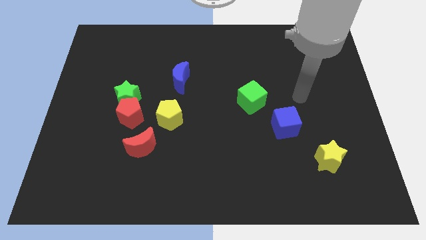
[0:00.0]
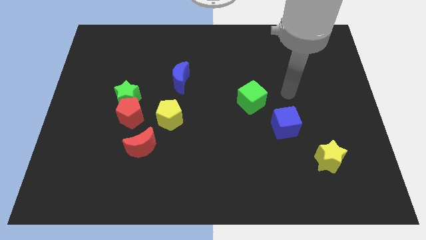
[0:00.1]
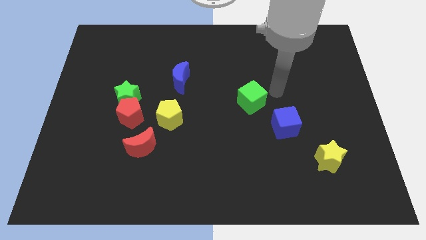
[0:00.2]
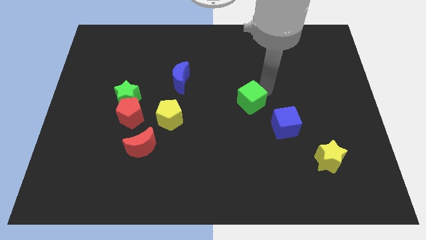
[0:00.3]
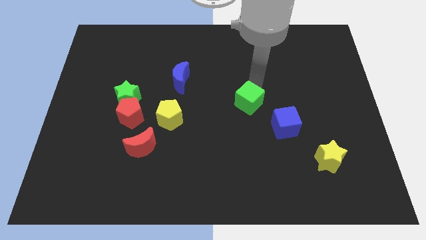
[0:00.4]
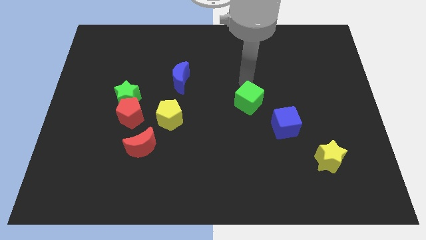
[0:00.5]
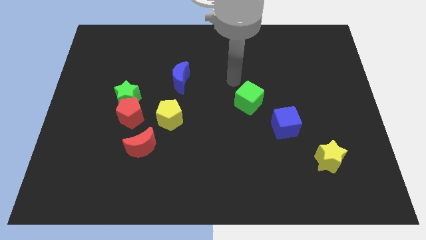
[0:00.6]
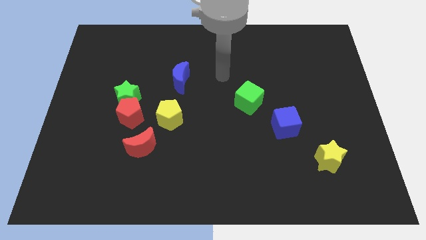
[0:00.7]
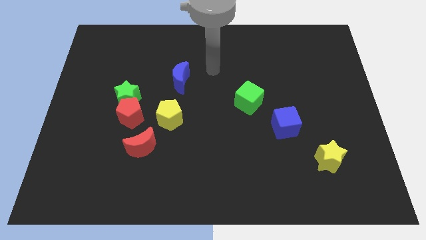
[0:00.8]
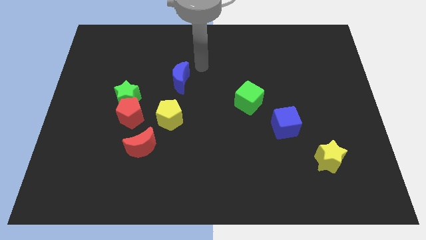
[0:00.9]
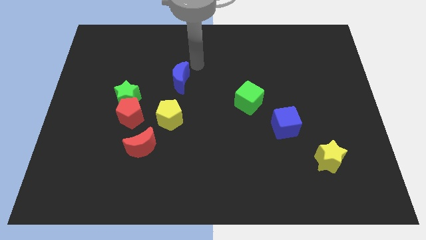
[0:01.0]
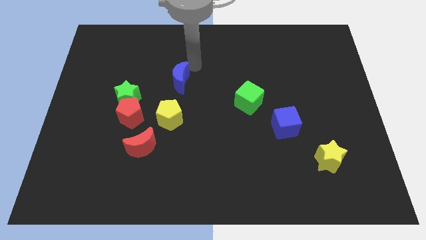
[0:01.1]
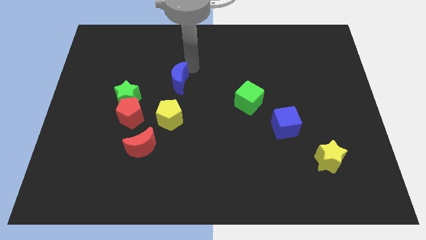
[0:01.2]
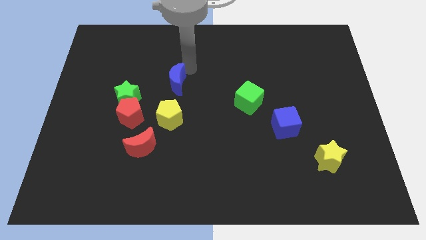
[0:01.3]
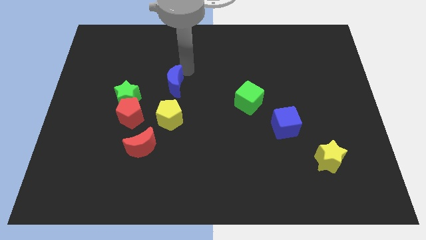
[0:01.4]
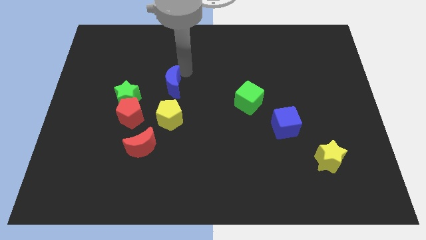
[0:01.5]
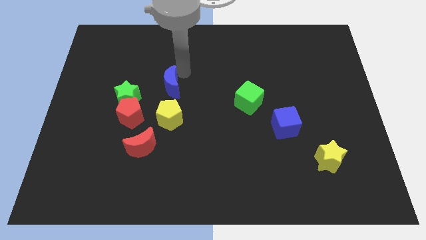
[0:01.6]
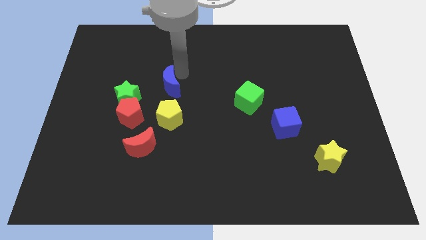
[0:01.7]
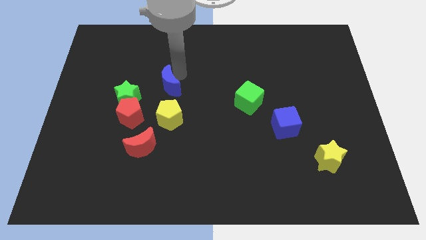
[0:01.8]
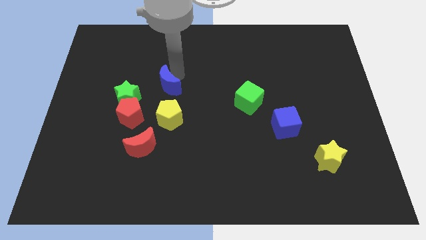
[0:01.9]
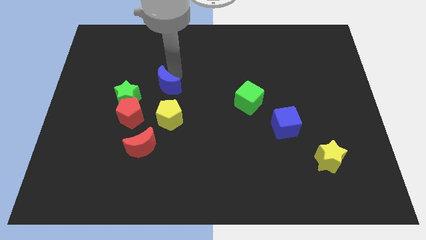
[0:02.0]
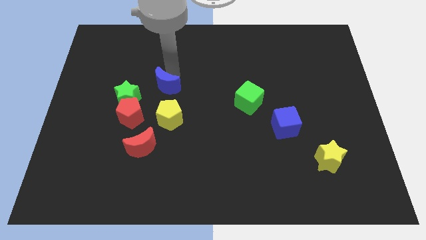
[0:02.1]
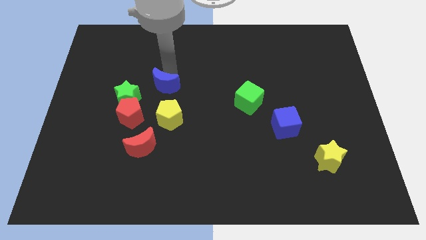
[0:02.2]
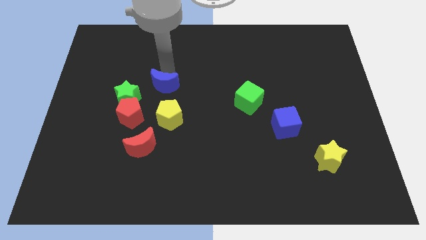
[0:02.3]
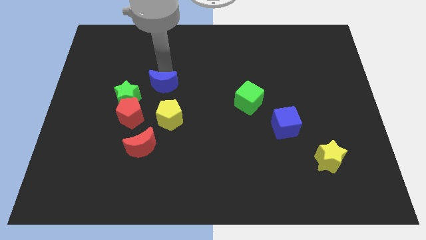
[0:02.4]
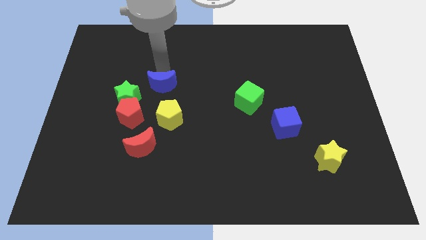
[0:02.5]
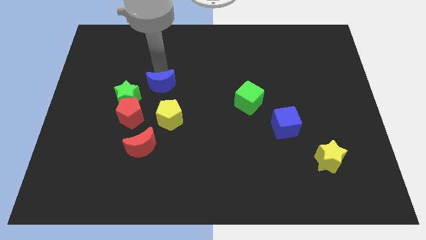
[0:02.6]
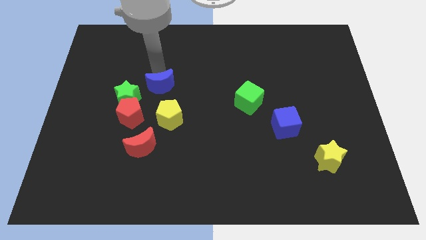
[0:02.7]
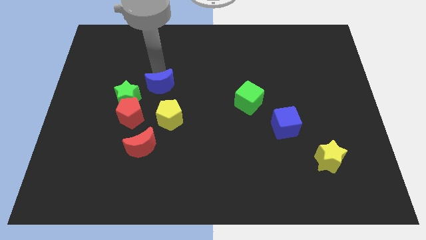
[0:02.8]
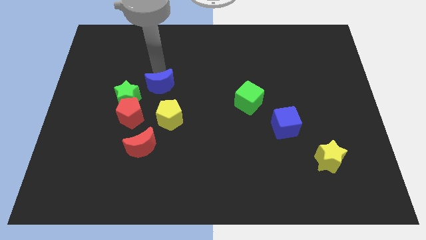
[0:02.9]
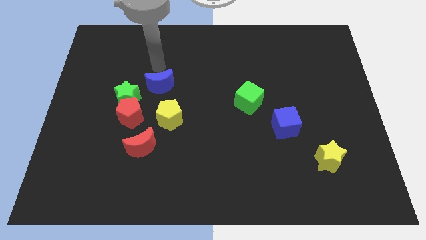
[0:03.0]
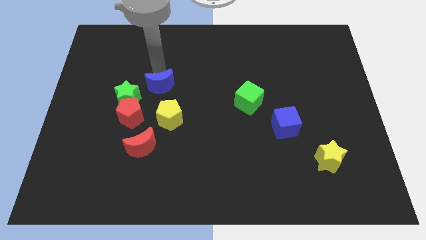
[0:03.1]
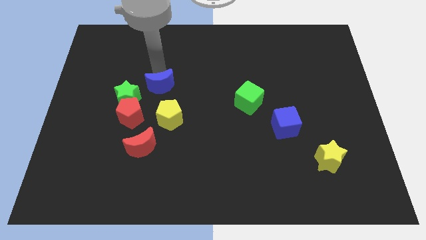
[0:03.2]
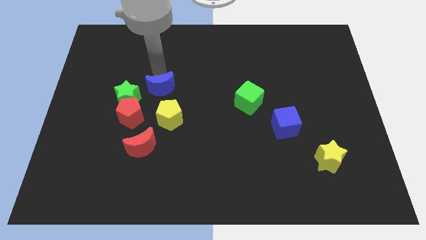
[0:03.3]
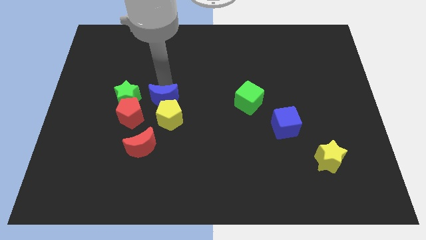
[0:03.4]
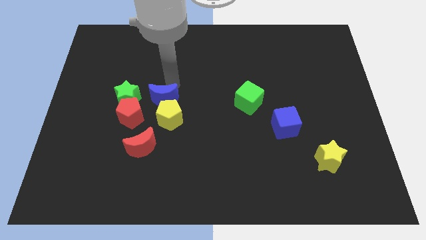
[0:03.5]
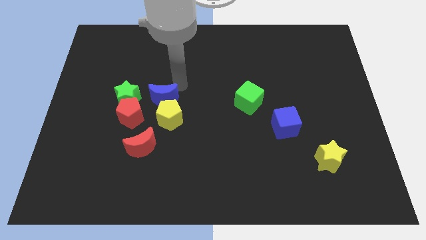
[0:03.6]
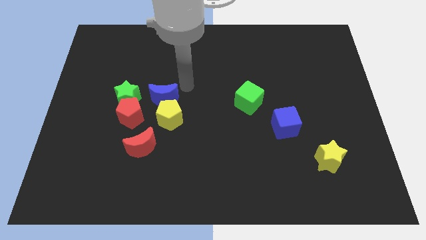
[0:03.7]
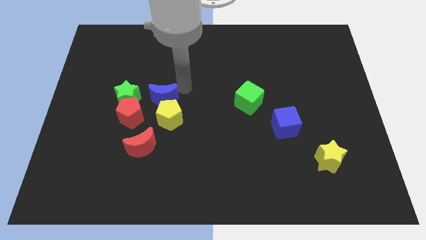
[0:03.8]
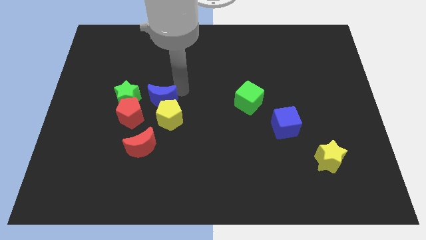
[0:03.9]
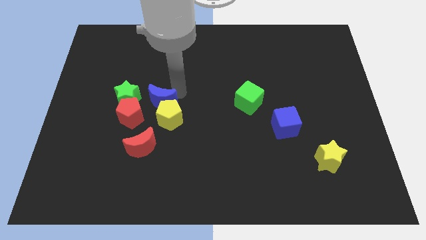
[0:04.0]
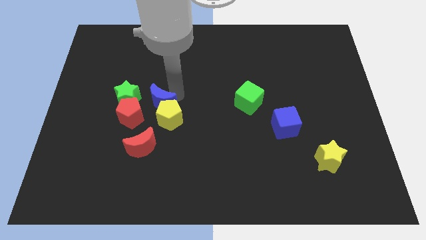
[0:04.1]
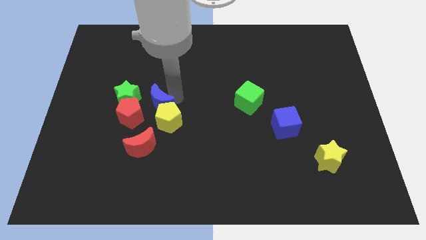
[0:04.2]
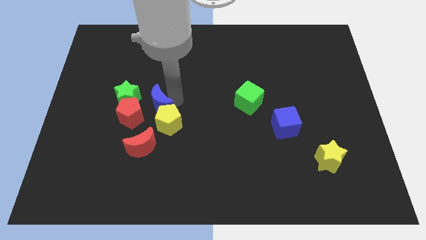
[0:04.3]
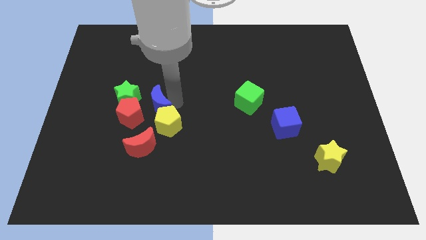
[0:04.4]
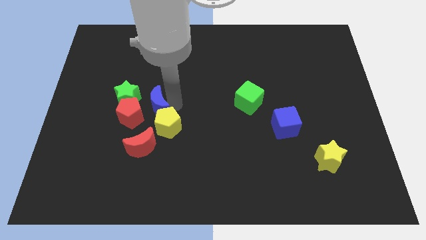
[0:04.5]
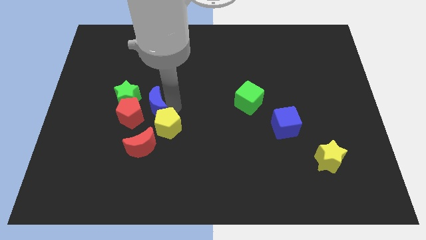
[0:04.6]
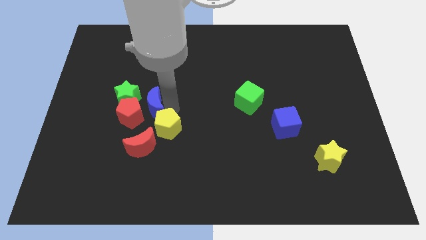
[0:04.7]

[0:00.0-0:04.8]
push the blue moon towards the red pentagon

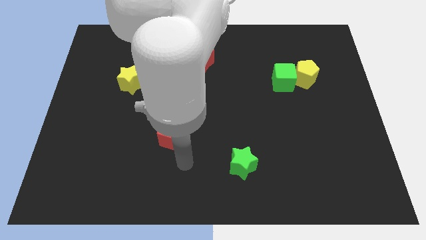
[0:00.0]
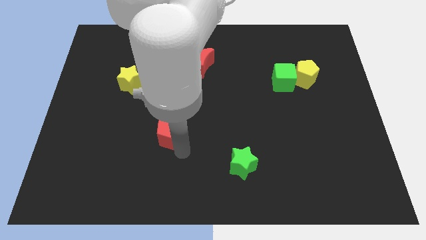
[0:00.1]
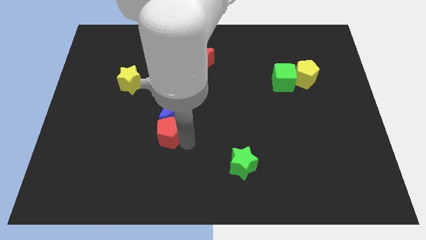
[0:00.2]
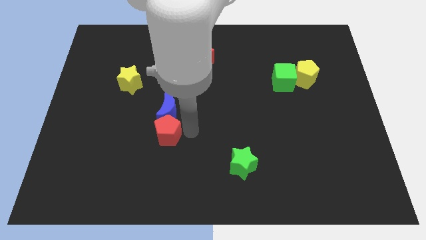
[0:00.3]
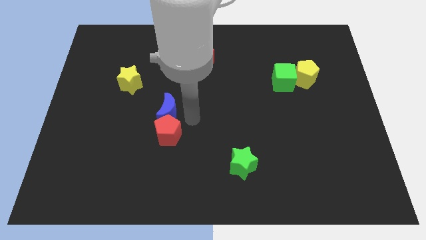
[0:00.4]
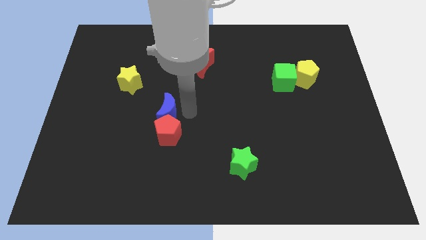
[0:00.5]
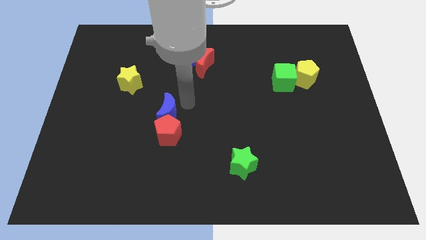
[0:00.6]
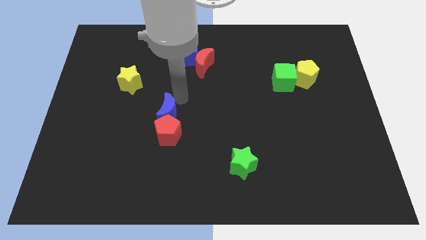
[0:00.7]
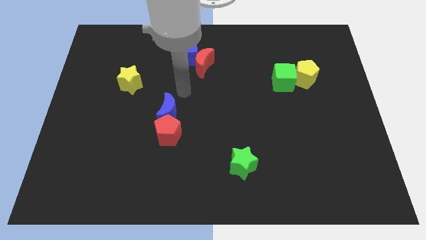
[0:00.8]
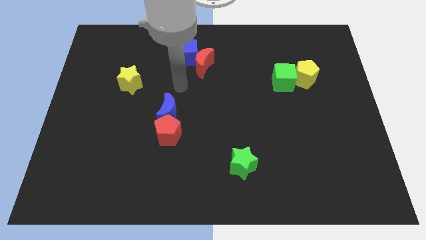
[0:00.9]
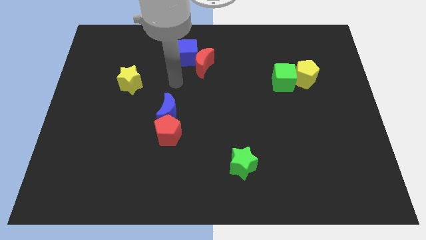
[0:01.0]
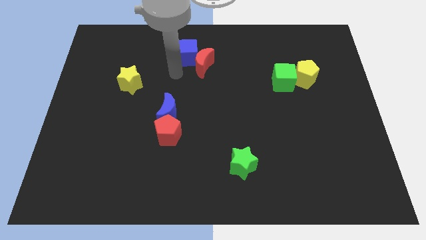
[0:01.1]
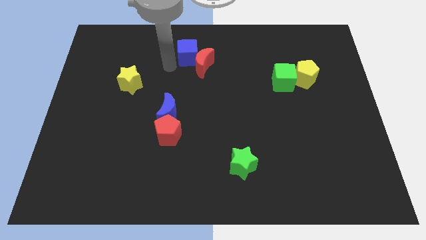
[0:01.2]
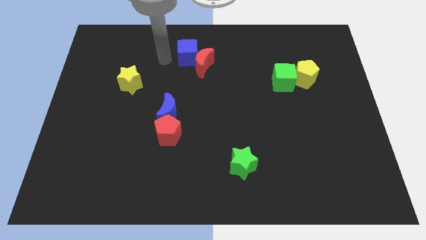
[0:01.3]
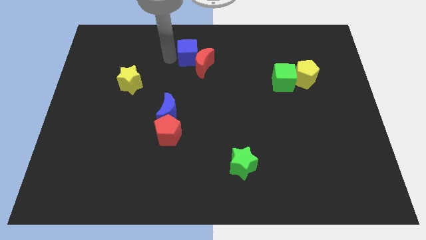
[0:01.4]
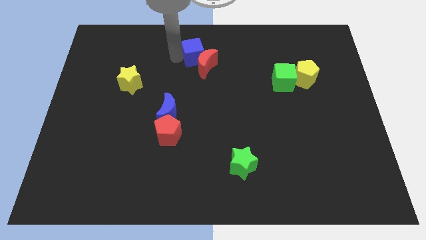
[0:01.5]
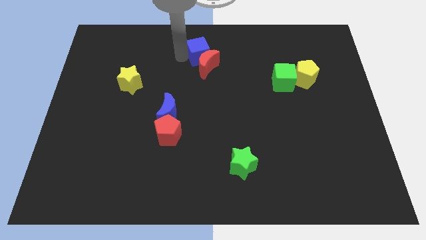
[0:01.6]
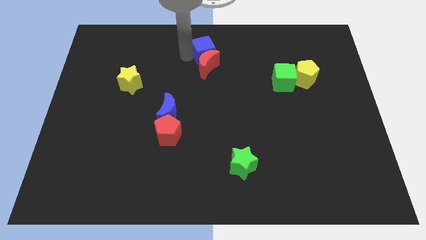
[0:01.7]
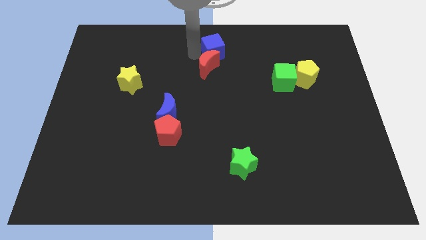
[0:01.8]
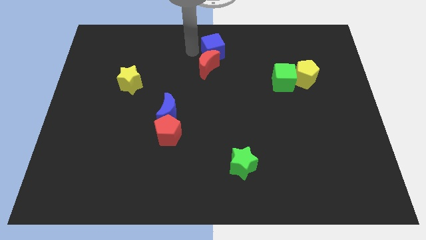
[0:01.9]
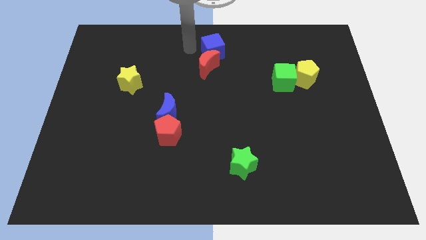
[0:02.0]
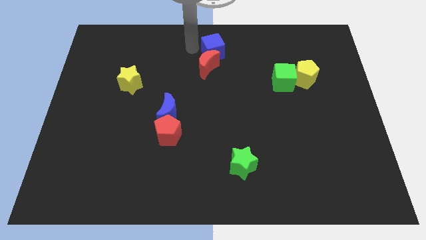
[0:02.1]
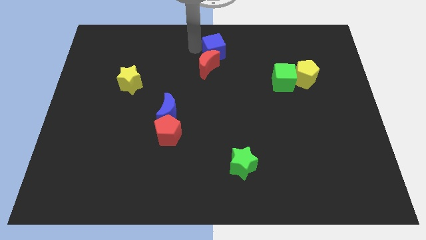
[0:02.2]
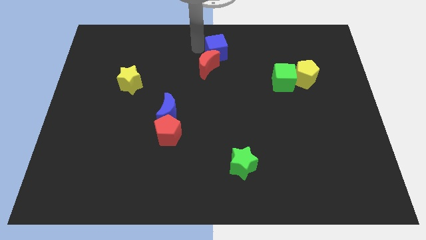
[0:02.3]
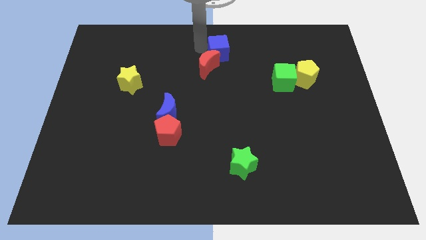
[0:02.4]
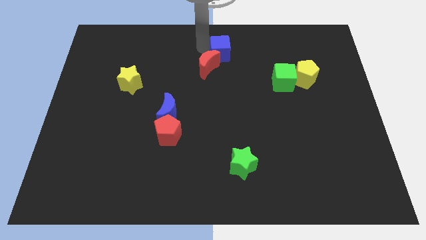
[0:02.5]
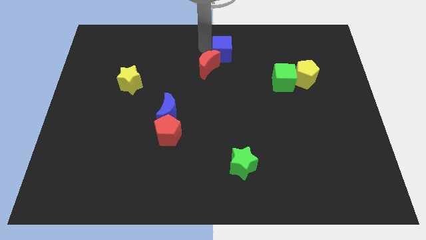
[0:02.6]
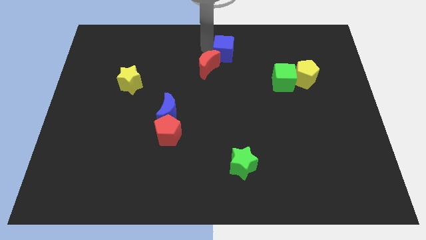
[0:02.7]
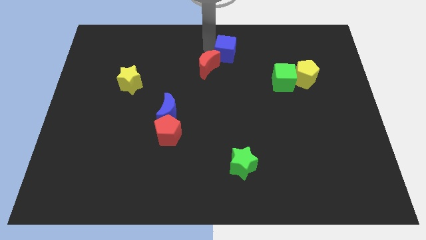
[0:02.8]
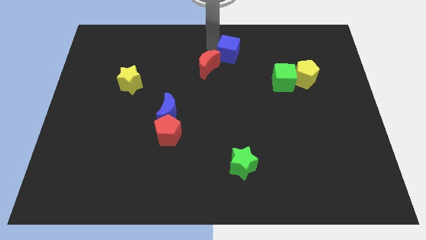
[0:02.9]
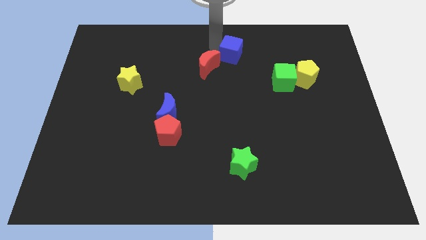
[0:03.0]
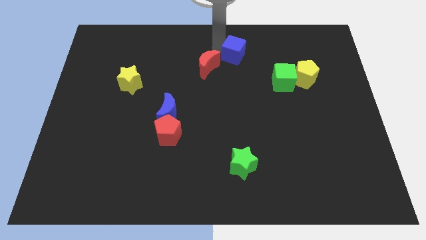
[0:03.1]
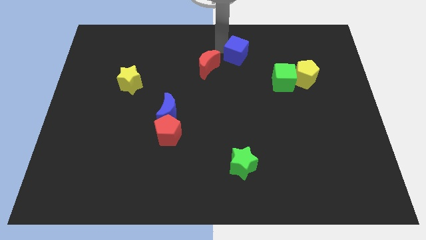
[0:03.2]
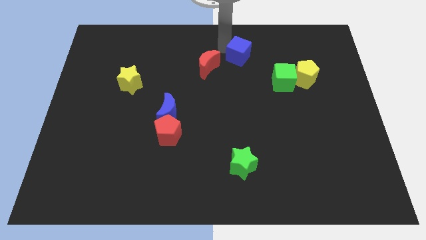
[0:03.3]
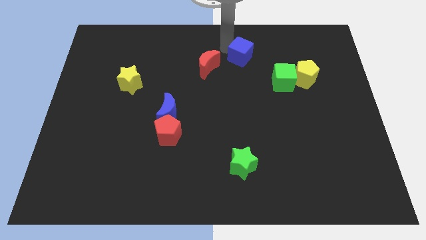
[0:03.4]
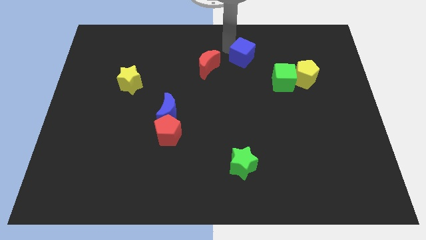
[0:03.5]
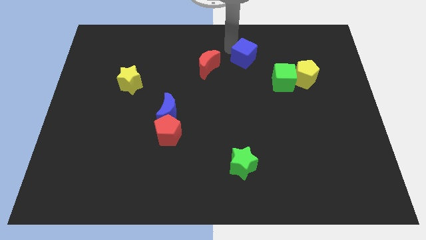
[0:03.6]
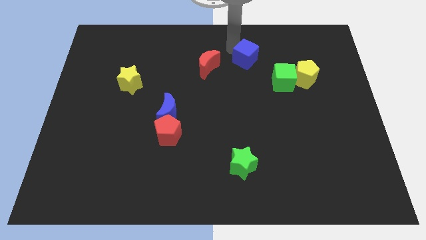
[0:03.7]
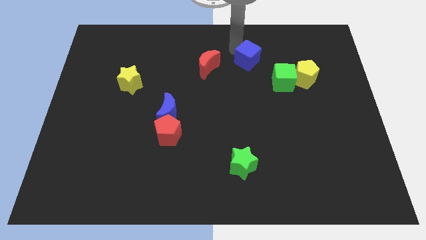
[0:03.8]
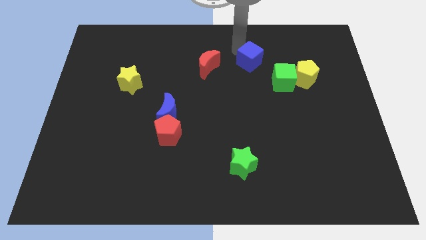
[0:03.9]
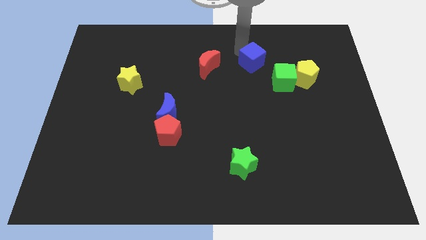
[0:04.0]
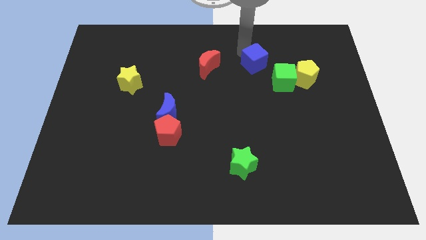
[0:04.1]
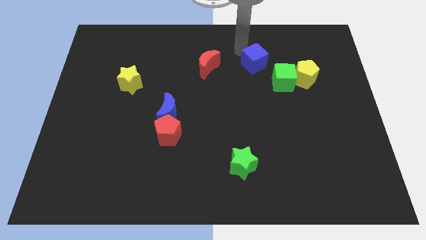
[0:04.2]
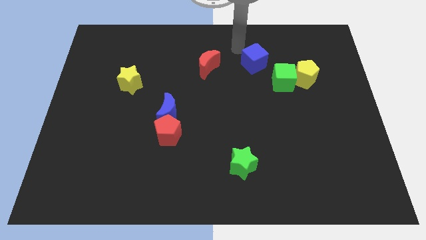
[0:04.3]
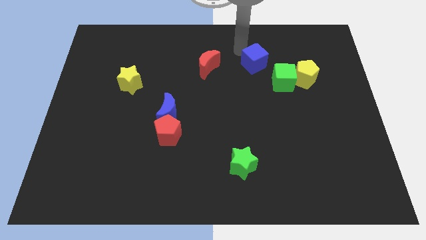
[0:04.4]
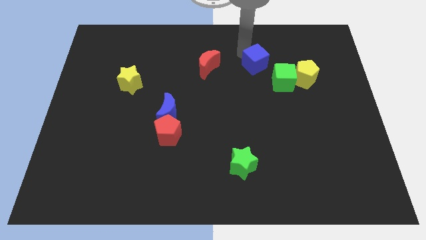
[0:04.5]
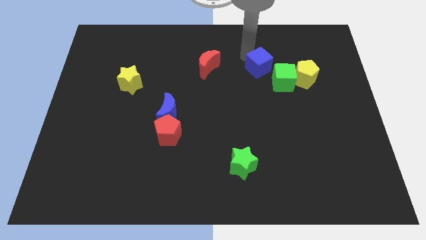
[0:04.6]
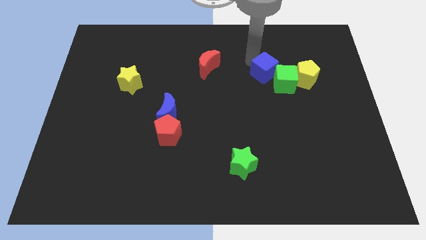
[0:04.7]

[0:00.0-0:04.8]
put the blue cube close to the green cube
